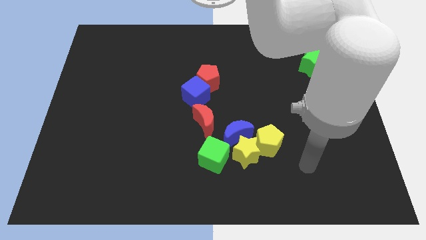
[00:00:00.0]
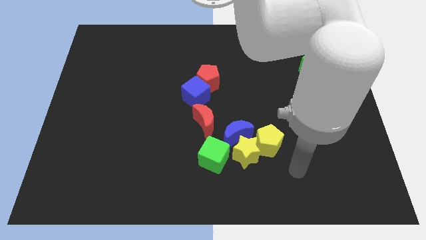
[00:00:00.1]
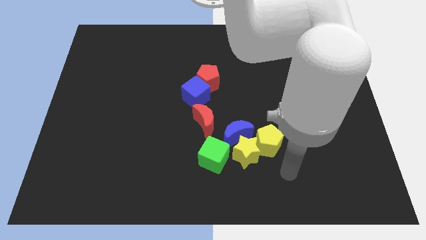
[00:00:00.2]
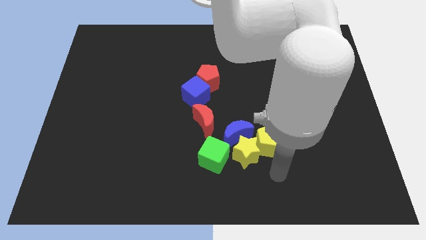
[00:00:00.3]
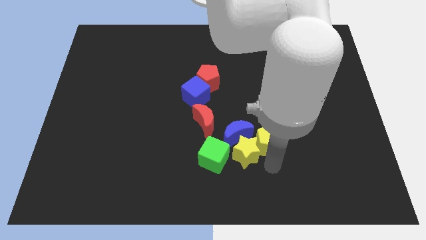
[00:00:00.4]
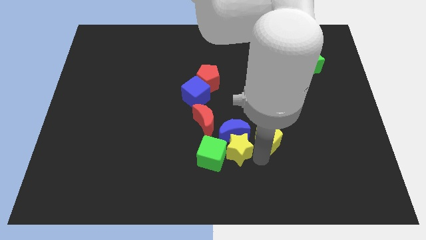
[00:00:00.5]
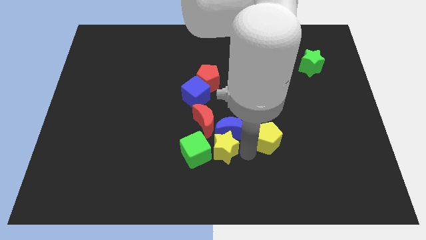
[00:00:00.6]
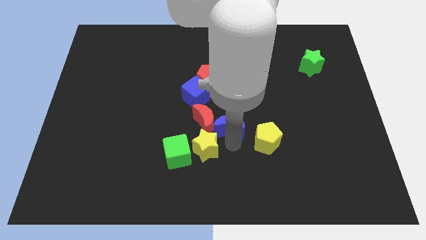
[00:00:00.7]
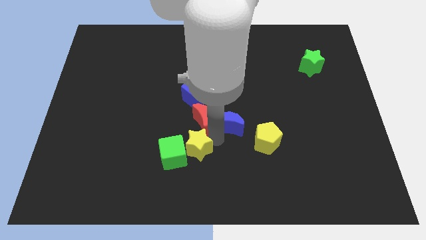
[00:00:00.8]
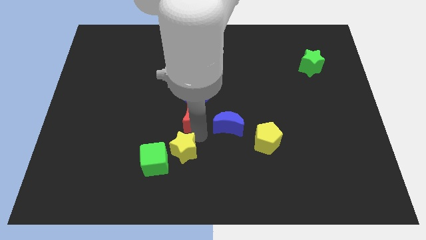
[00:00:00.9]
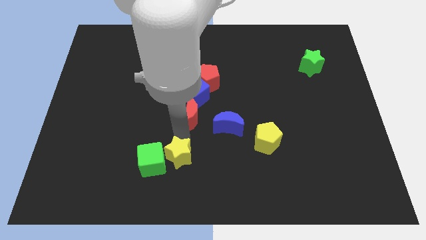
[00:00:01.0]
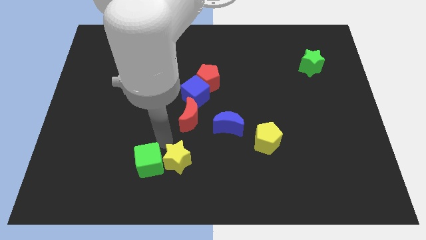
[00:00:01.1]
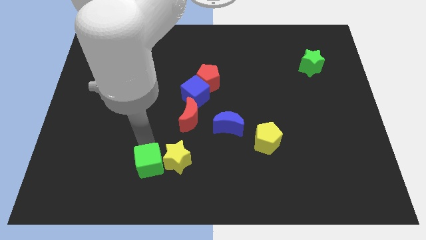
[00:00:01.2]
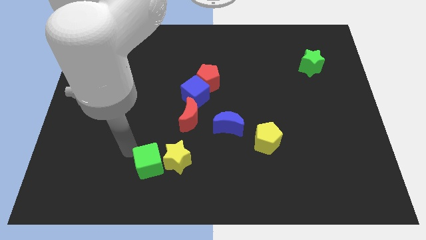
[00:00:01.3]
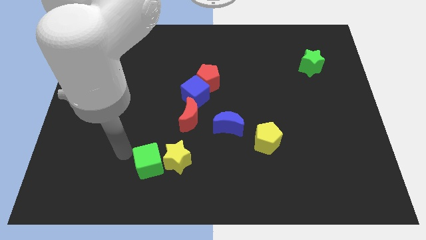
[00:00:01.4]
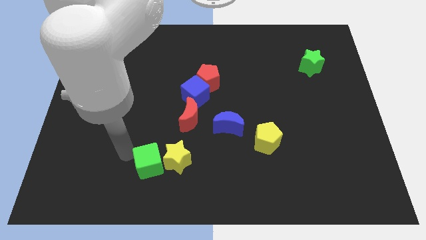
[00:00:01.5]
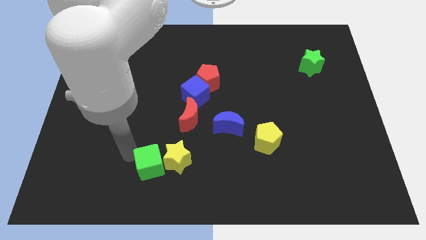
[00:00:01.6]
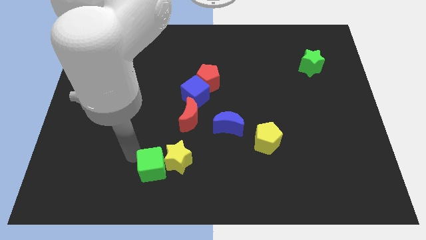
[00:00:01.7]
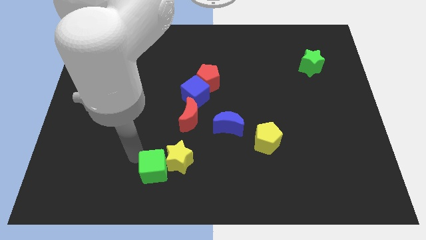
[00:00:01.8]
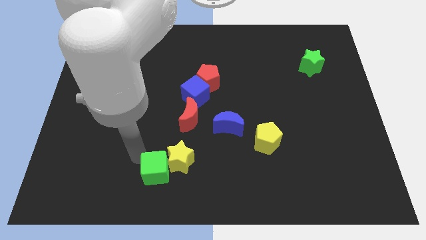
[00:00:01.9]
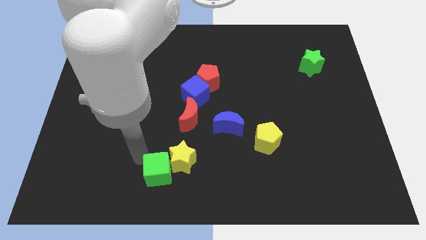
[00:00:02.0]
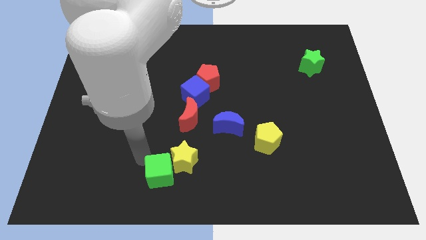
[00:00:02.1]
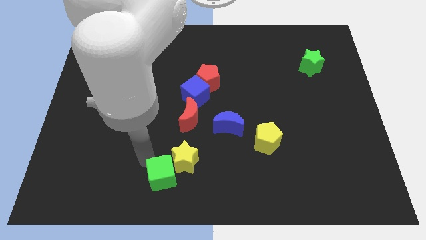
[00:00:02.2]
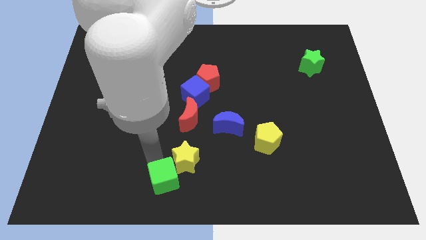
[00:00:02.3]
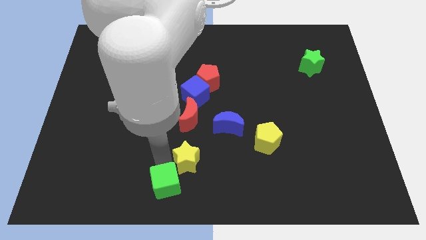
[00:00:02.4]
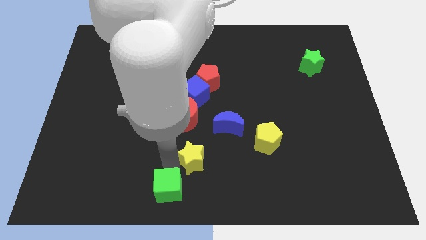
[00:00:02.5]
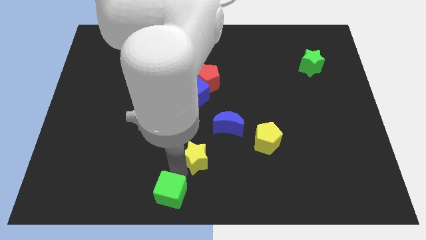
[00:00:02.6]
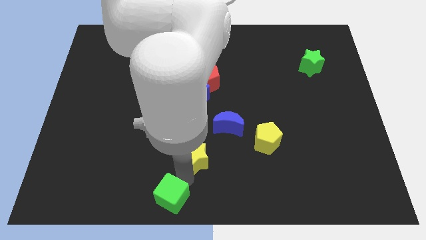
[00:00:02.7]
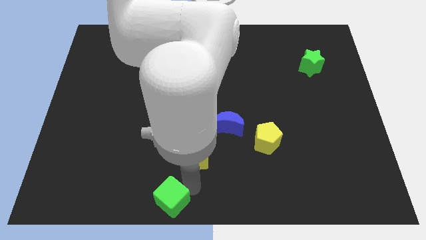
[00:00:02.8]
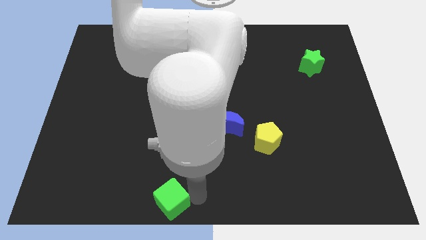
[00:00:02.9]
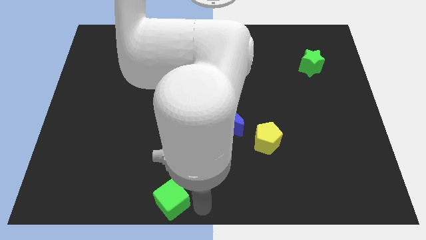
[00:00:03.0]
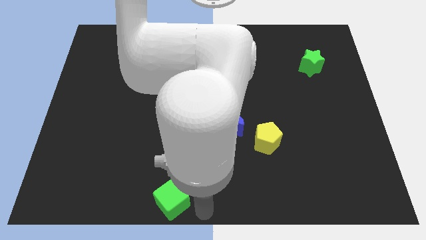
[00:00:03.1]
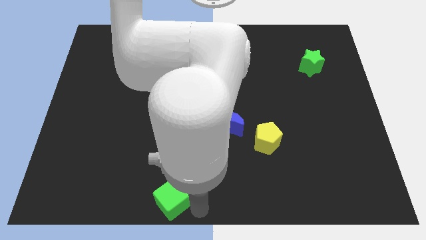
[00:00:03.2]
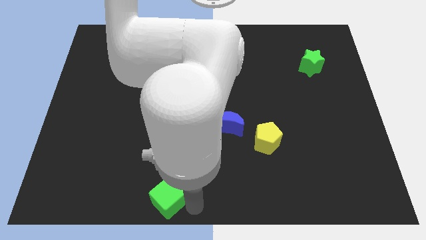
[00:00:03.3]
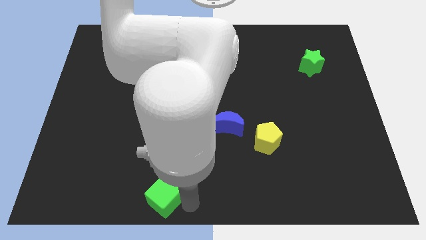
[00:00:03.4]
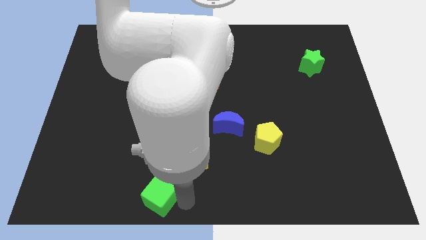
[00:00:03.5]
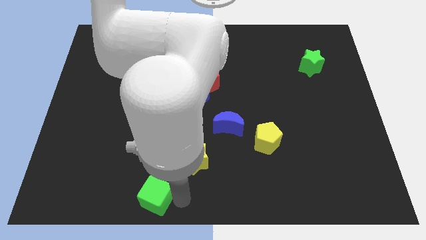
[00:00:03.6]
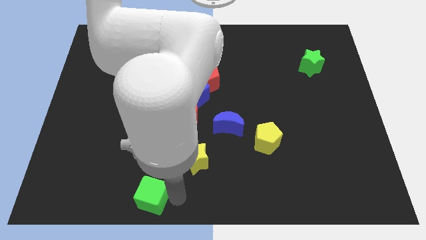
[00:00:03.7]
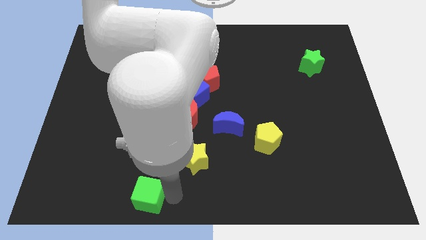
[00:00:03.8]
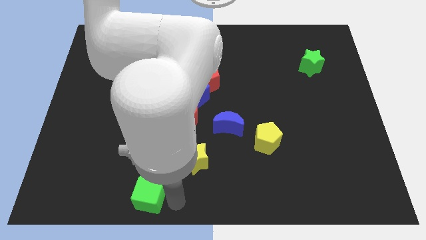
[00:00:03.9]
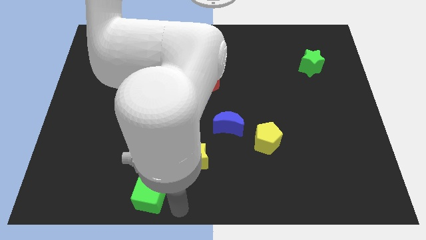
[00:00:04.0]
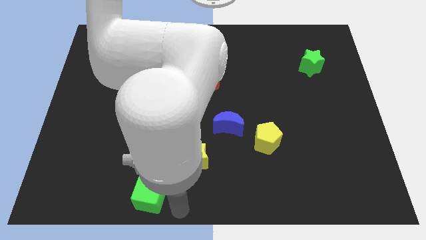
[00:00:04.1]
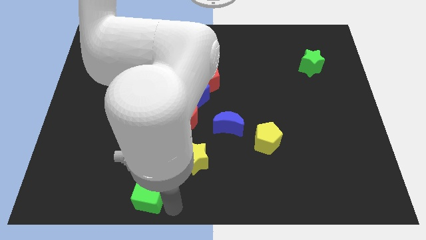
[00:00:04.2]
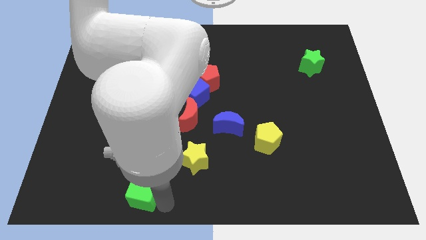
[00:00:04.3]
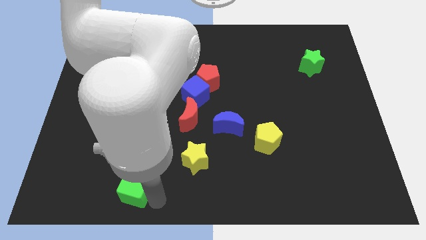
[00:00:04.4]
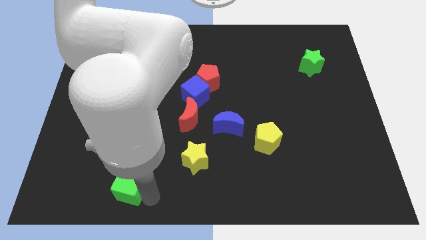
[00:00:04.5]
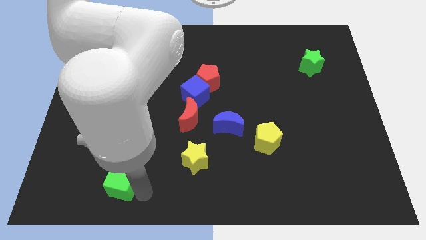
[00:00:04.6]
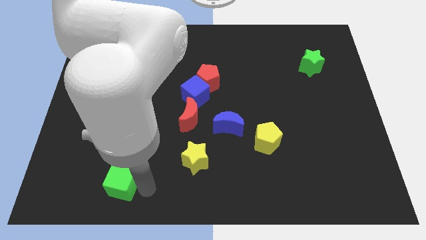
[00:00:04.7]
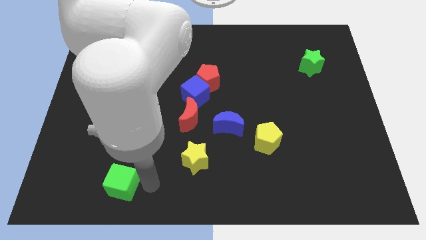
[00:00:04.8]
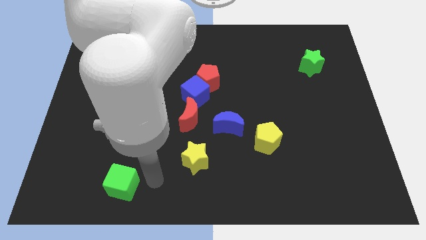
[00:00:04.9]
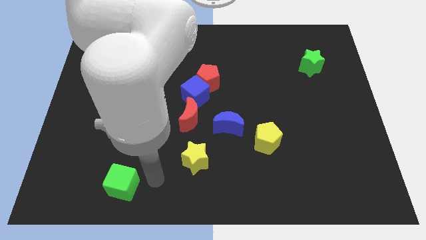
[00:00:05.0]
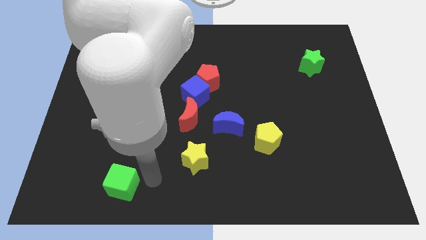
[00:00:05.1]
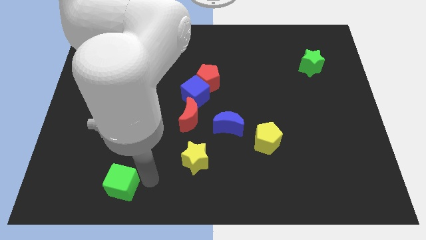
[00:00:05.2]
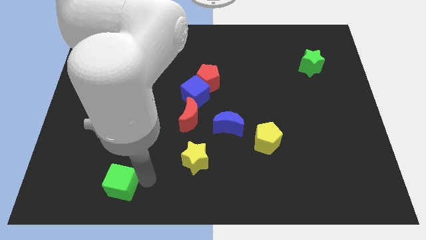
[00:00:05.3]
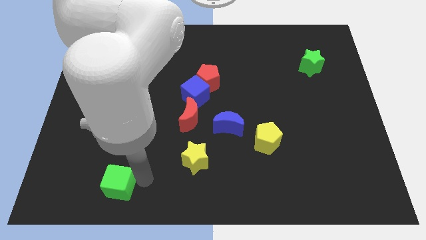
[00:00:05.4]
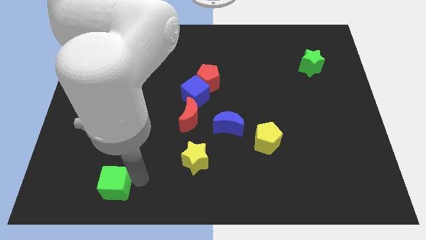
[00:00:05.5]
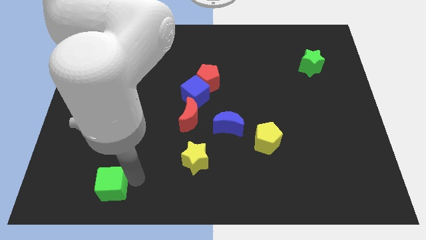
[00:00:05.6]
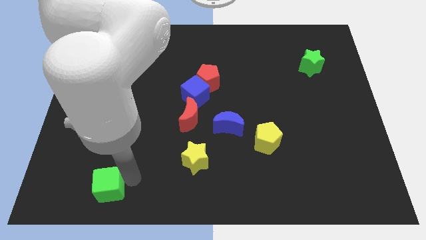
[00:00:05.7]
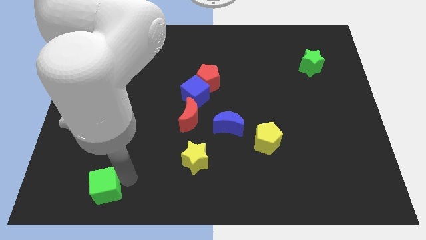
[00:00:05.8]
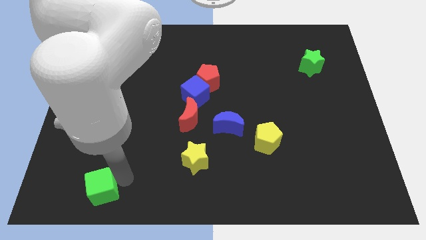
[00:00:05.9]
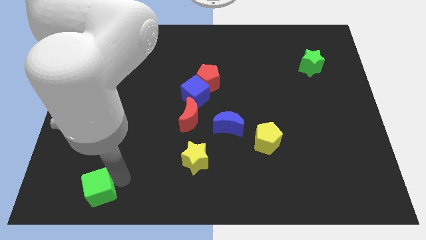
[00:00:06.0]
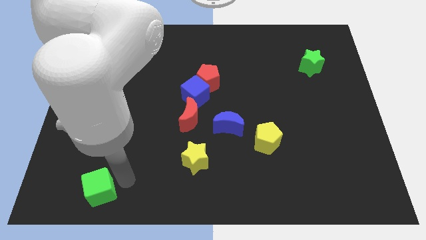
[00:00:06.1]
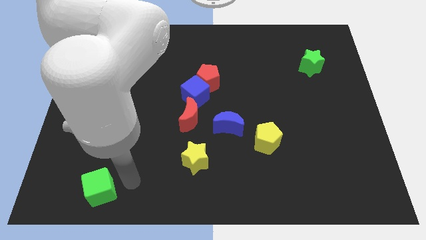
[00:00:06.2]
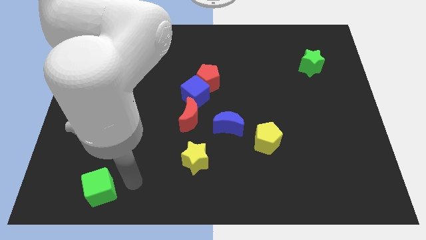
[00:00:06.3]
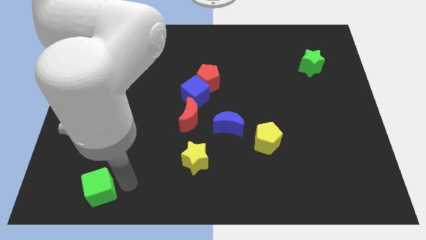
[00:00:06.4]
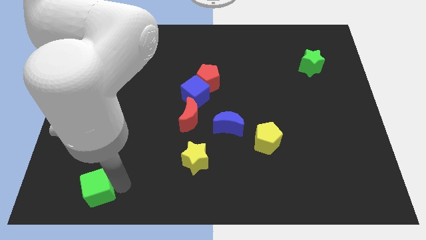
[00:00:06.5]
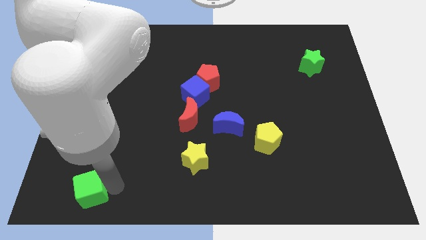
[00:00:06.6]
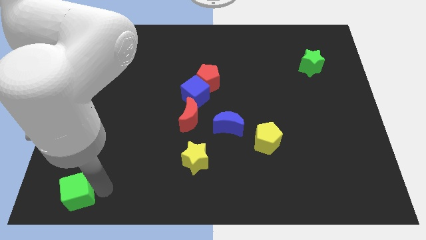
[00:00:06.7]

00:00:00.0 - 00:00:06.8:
push the green cube to the bottom left of the board
